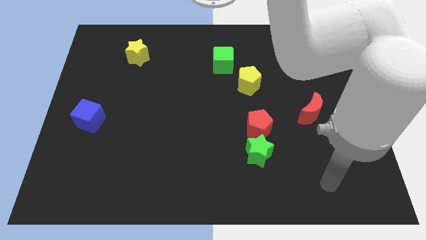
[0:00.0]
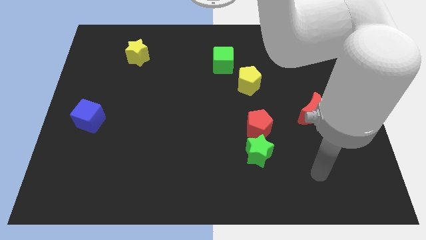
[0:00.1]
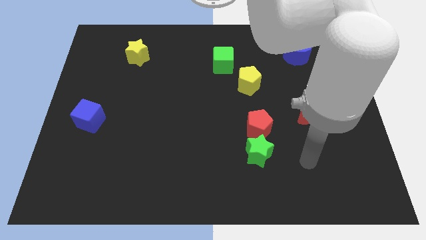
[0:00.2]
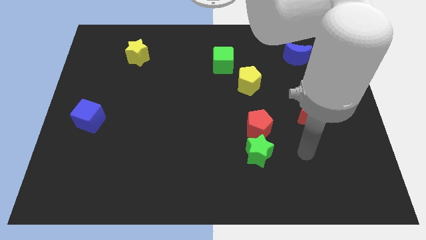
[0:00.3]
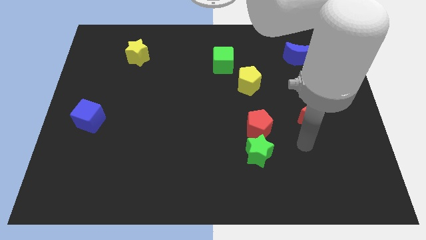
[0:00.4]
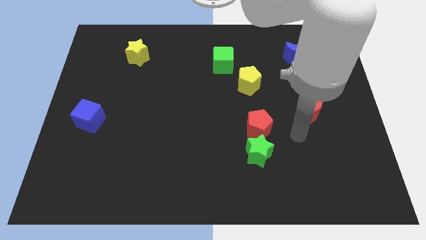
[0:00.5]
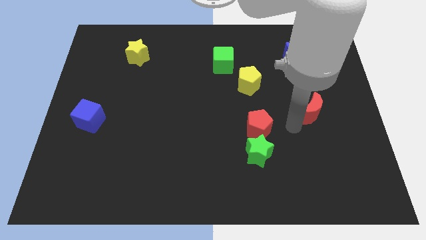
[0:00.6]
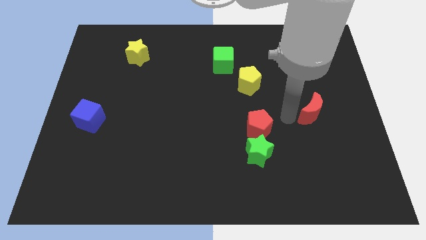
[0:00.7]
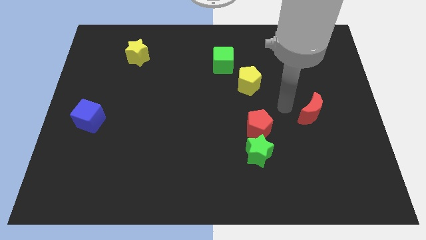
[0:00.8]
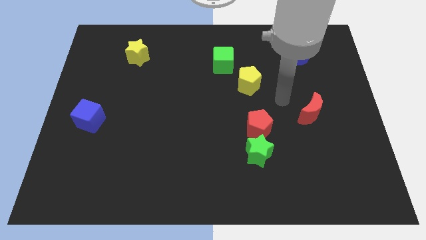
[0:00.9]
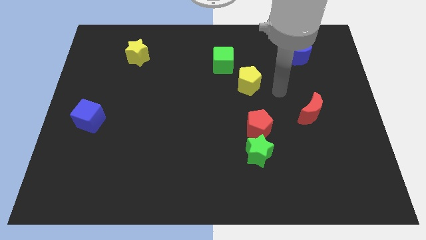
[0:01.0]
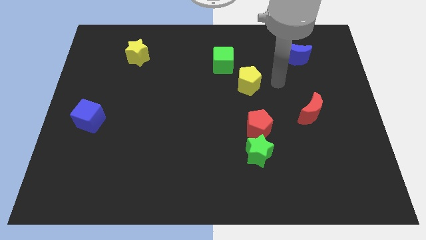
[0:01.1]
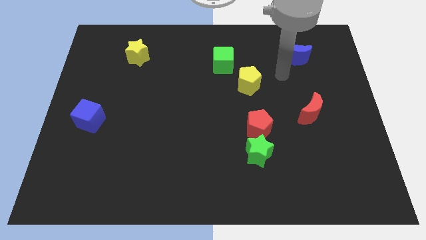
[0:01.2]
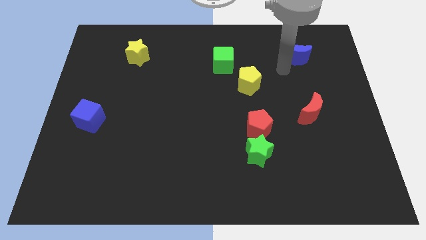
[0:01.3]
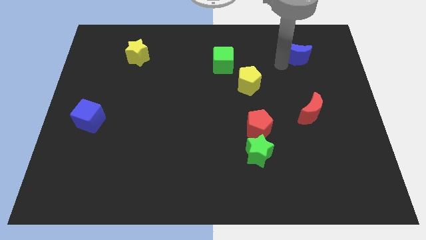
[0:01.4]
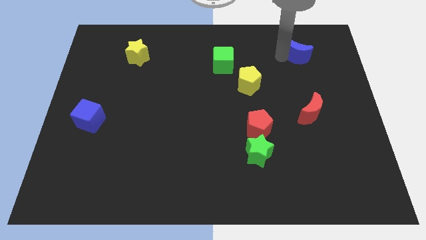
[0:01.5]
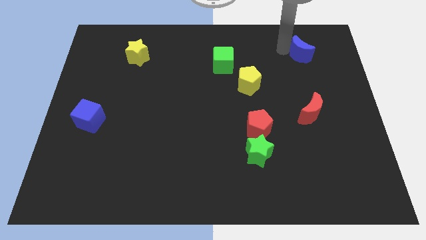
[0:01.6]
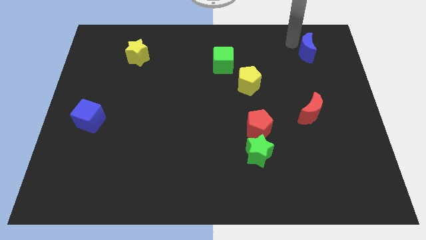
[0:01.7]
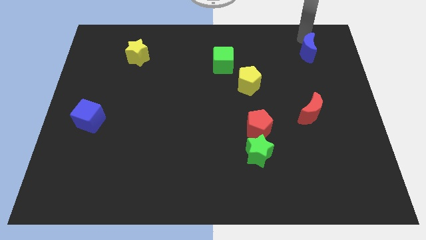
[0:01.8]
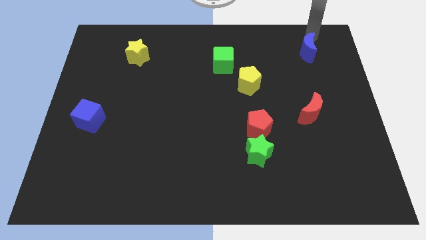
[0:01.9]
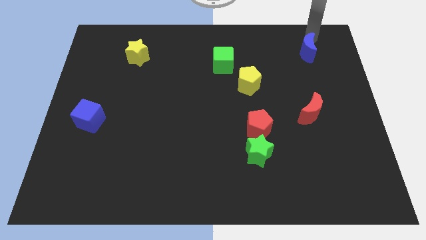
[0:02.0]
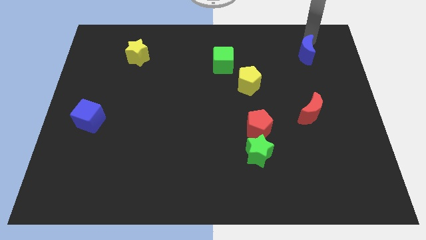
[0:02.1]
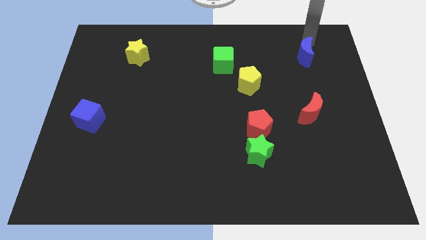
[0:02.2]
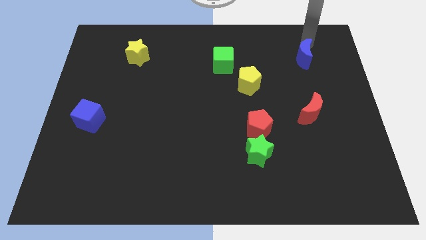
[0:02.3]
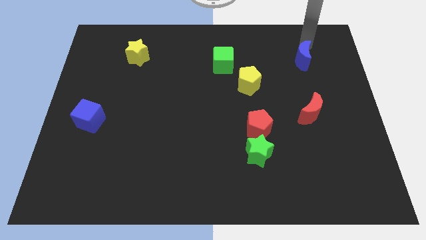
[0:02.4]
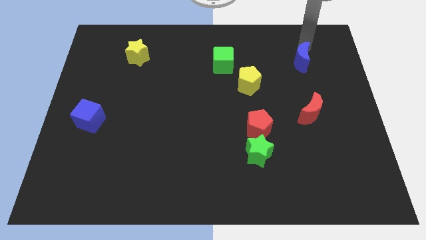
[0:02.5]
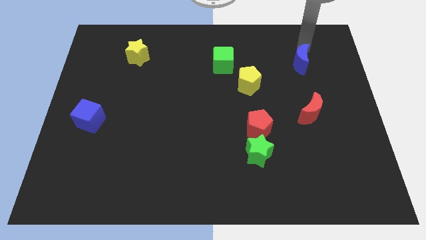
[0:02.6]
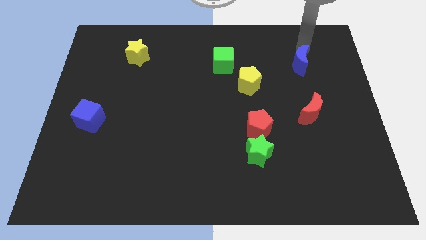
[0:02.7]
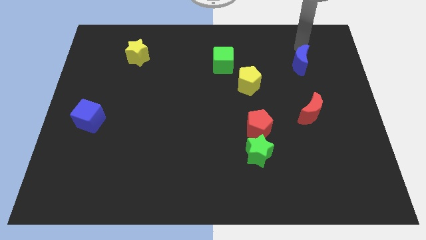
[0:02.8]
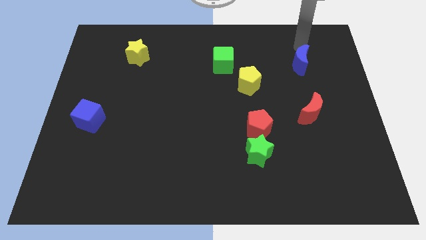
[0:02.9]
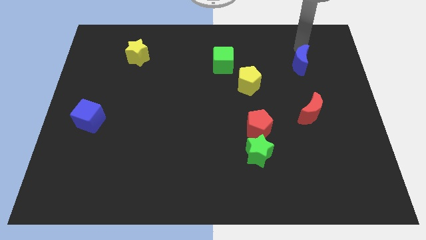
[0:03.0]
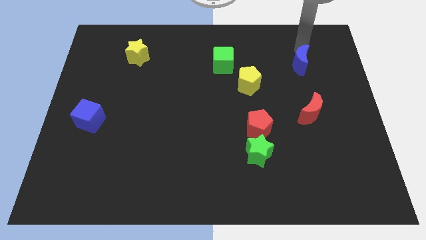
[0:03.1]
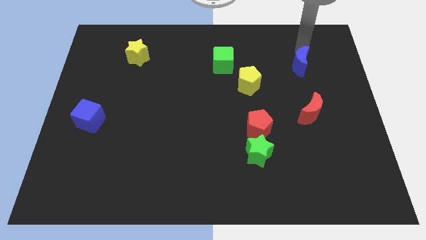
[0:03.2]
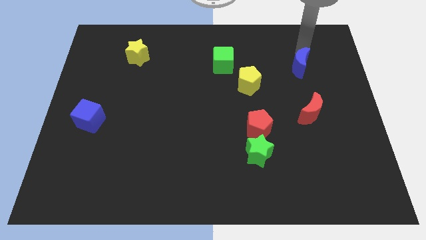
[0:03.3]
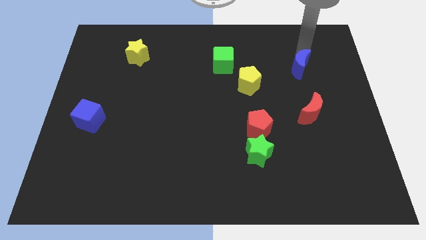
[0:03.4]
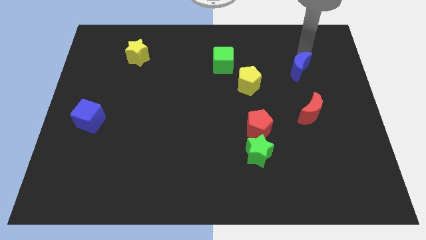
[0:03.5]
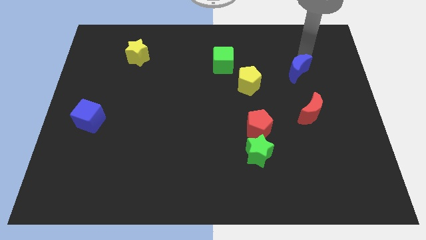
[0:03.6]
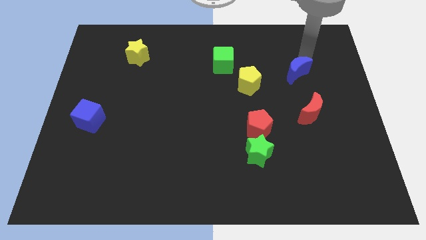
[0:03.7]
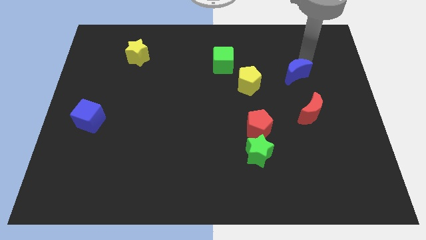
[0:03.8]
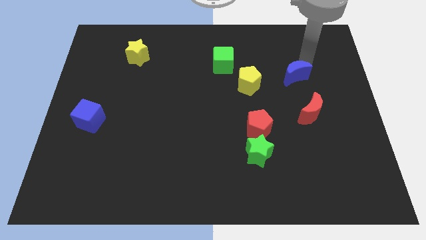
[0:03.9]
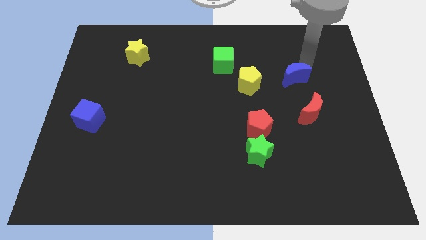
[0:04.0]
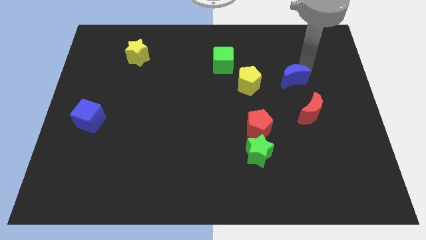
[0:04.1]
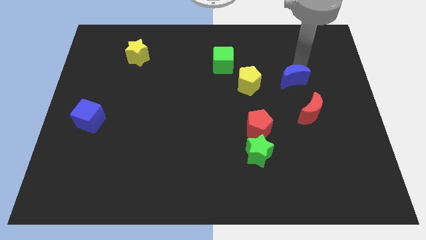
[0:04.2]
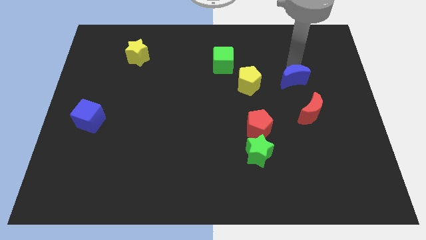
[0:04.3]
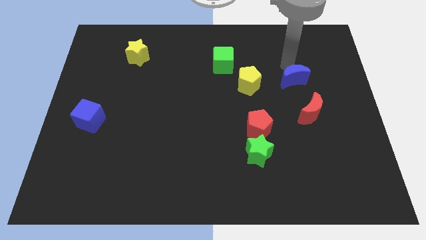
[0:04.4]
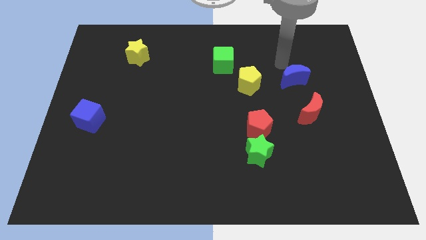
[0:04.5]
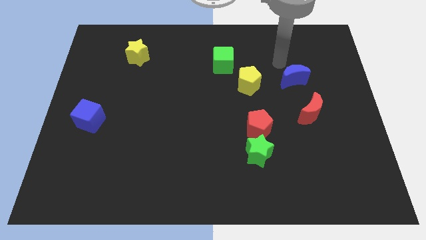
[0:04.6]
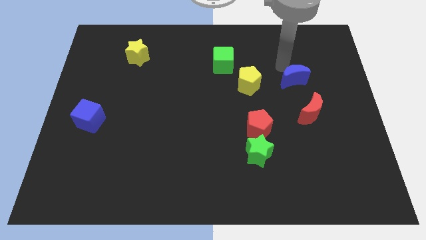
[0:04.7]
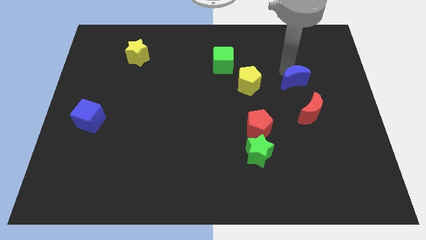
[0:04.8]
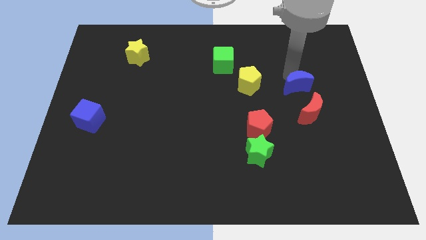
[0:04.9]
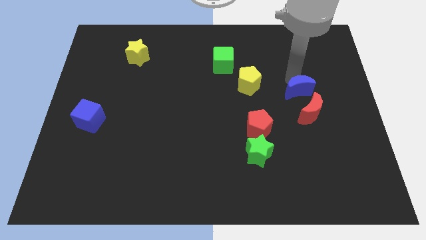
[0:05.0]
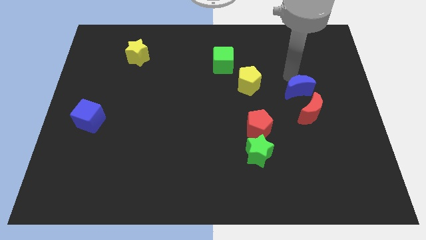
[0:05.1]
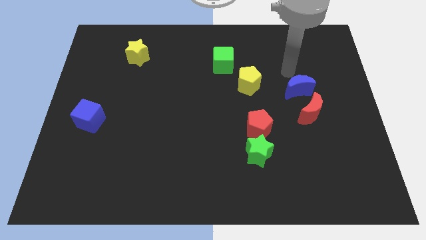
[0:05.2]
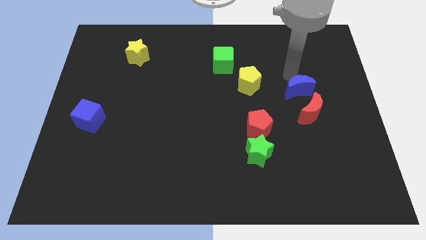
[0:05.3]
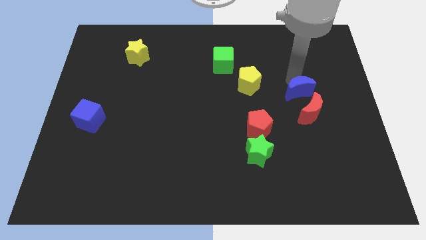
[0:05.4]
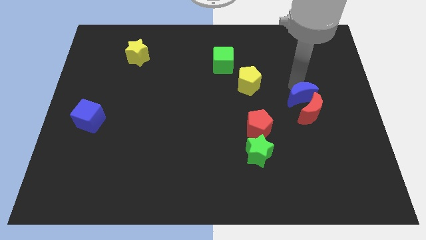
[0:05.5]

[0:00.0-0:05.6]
put the blue moon next to the red moon

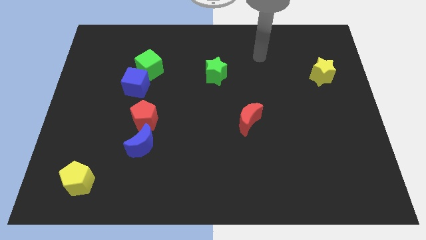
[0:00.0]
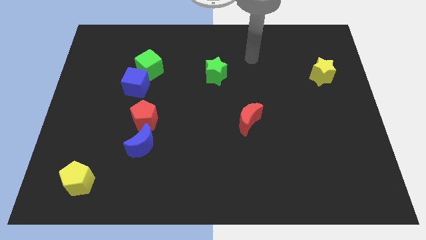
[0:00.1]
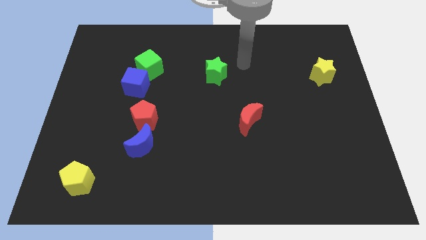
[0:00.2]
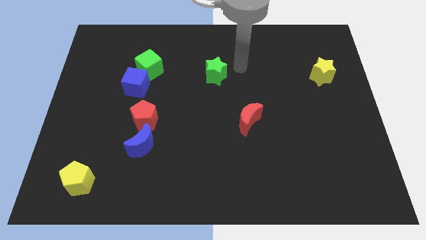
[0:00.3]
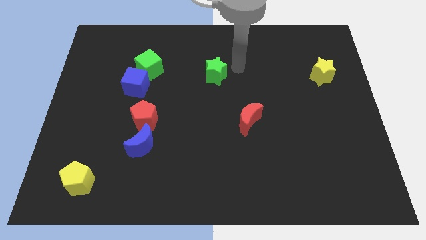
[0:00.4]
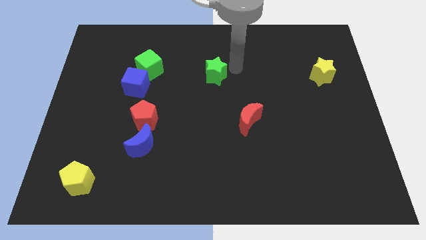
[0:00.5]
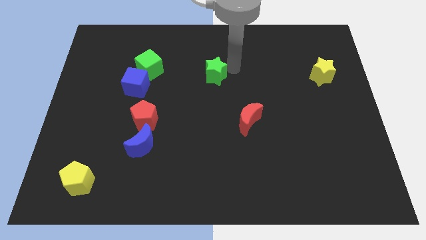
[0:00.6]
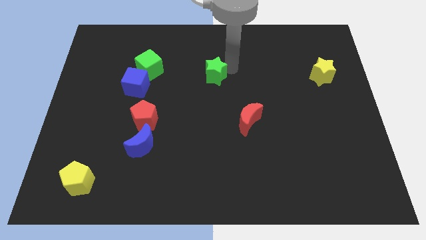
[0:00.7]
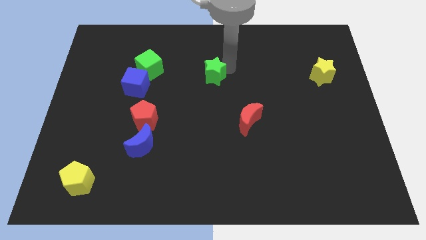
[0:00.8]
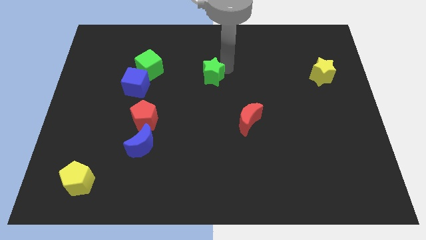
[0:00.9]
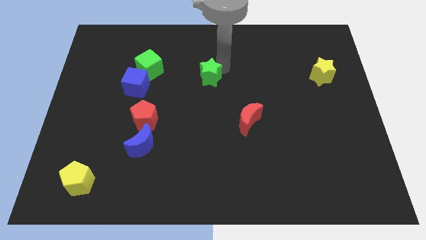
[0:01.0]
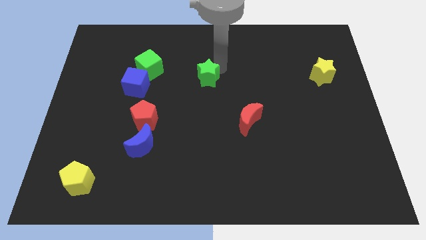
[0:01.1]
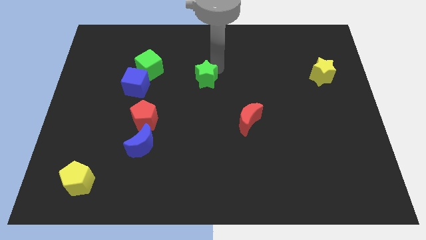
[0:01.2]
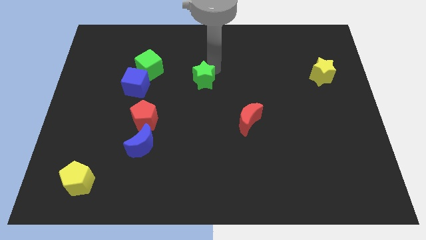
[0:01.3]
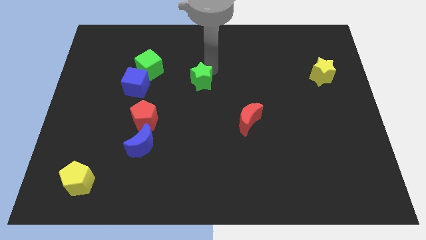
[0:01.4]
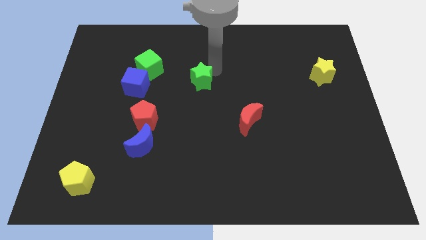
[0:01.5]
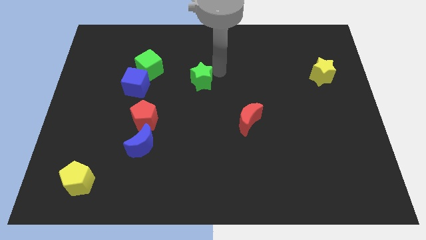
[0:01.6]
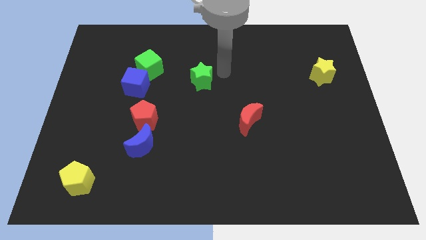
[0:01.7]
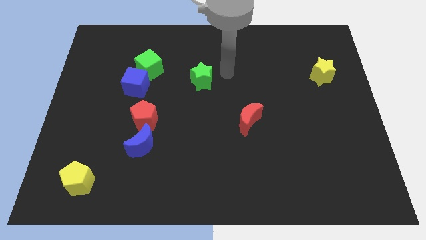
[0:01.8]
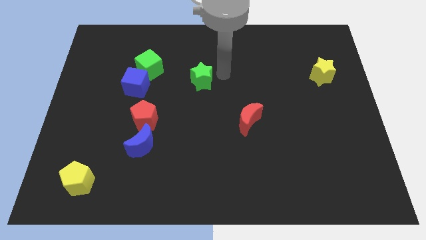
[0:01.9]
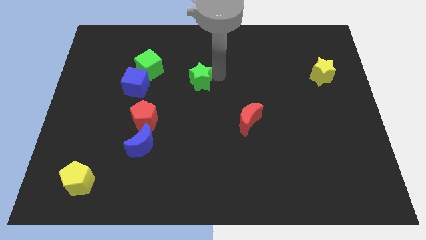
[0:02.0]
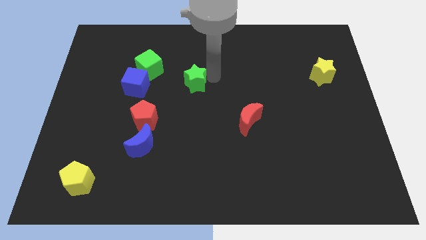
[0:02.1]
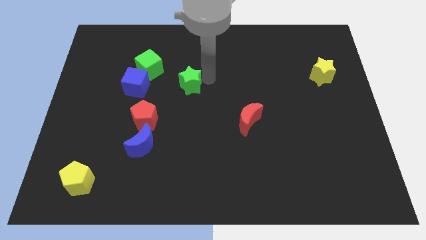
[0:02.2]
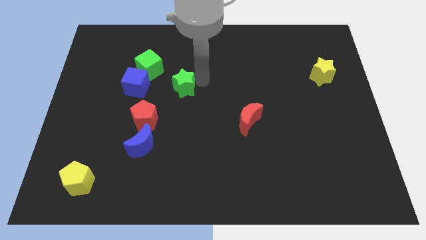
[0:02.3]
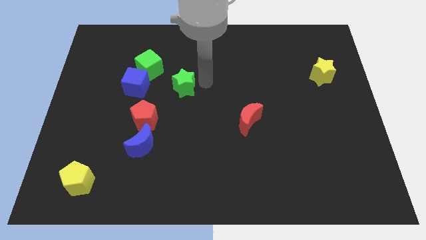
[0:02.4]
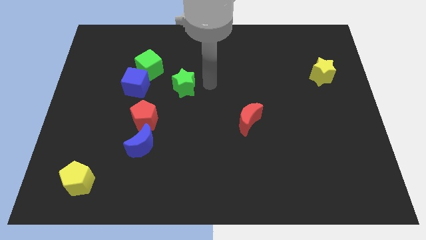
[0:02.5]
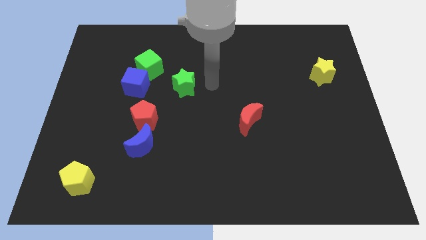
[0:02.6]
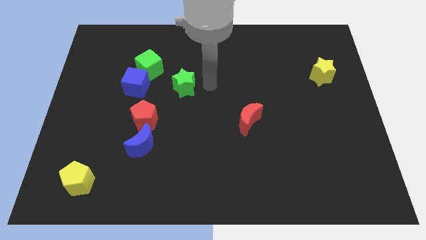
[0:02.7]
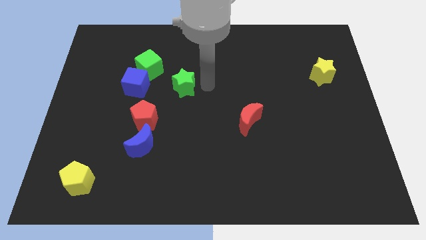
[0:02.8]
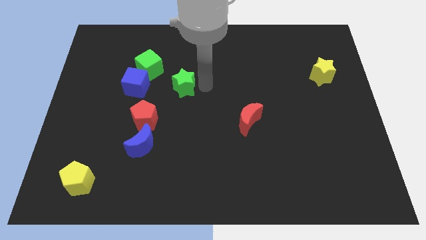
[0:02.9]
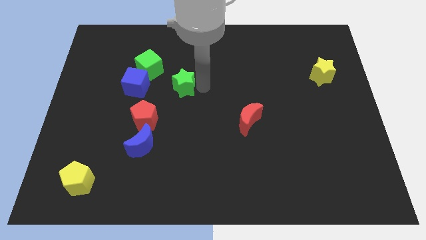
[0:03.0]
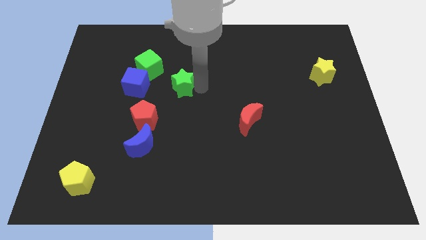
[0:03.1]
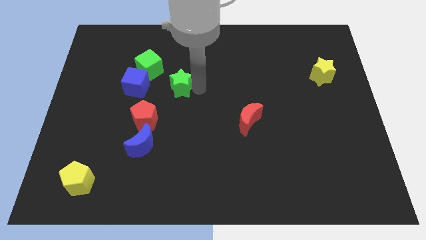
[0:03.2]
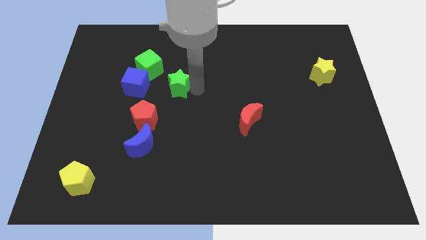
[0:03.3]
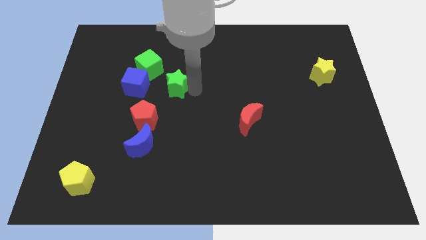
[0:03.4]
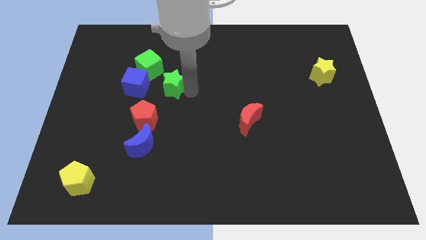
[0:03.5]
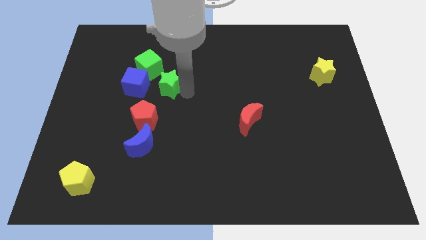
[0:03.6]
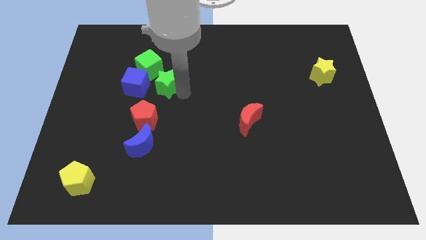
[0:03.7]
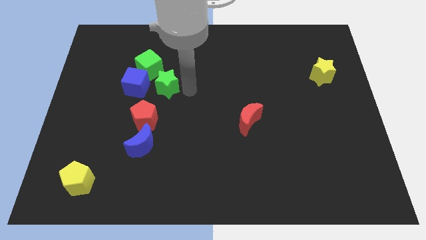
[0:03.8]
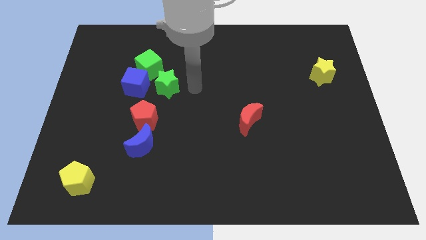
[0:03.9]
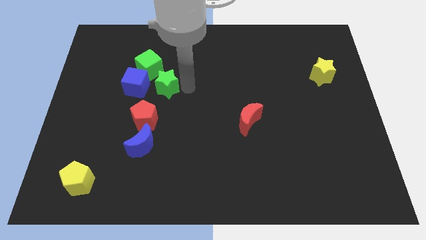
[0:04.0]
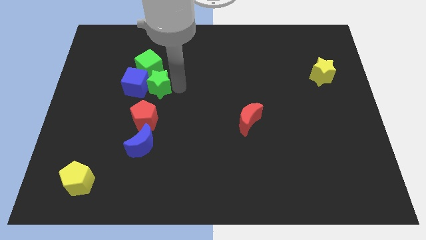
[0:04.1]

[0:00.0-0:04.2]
move the green star close to the blue cube
